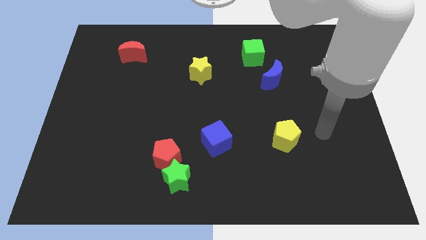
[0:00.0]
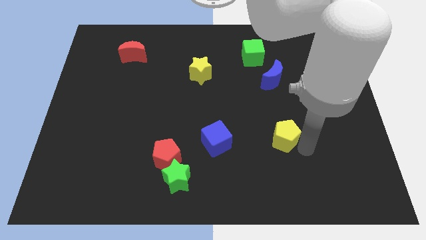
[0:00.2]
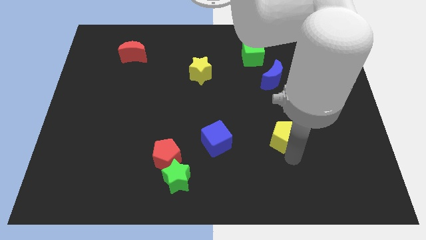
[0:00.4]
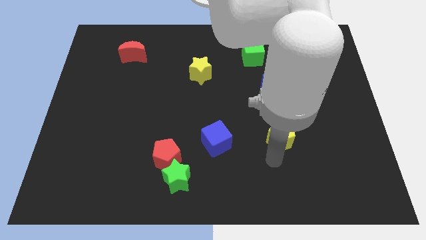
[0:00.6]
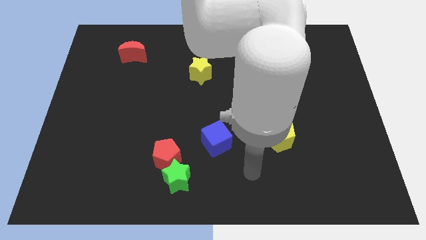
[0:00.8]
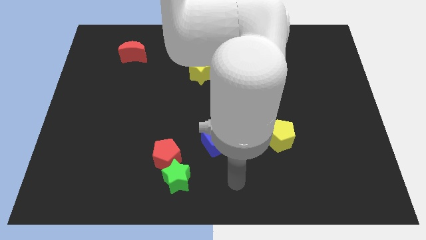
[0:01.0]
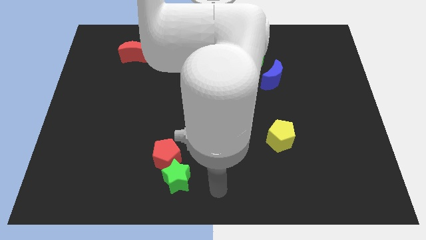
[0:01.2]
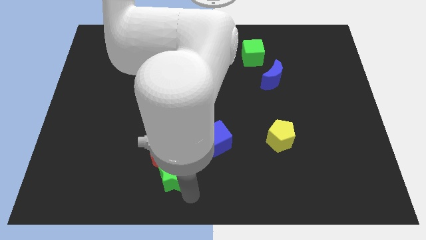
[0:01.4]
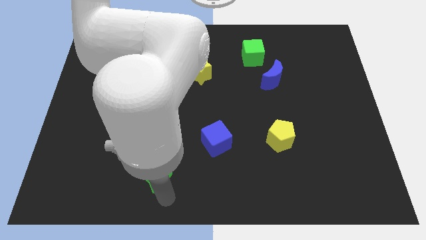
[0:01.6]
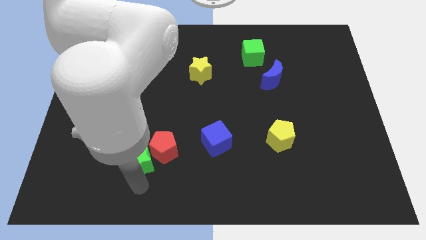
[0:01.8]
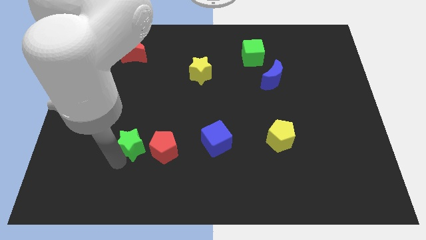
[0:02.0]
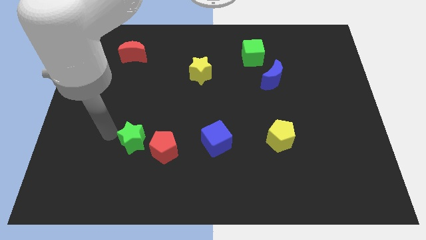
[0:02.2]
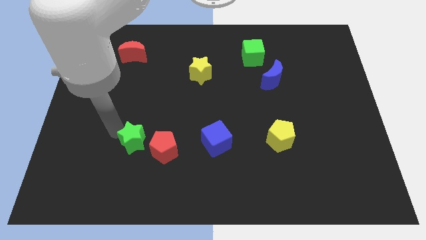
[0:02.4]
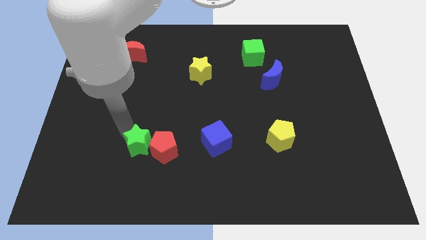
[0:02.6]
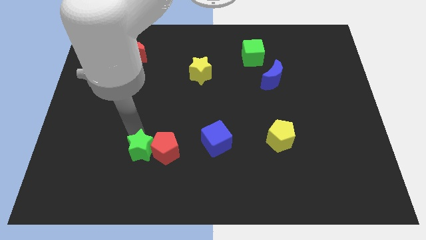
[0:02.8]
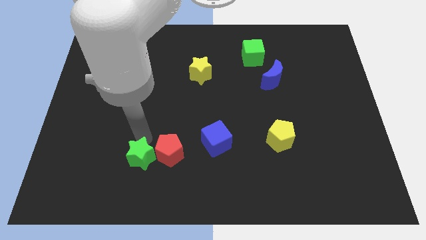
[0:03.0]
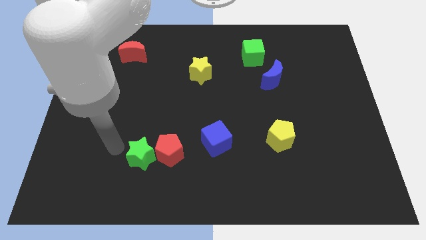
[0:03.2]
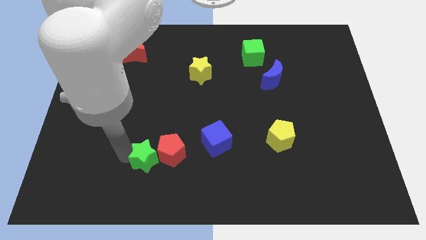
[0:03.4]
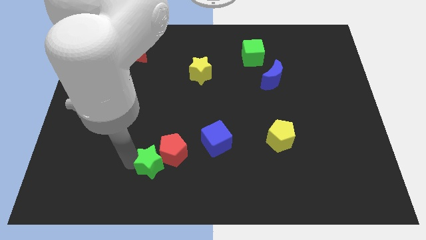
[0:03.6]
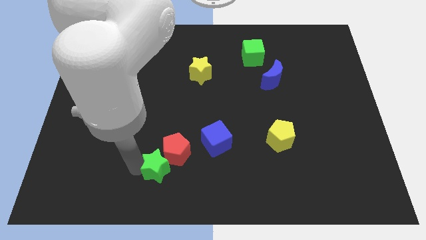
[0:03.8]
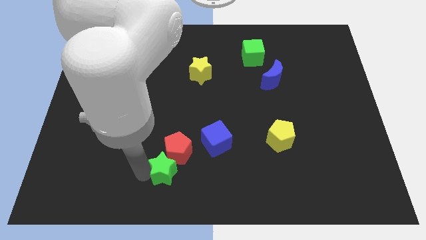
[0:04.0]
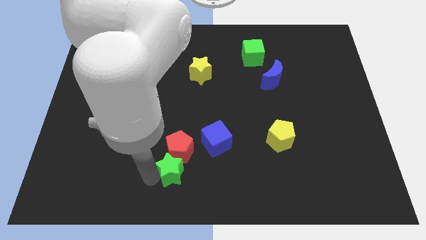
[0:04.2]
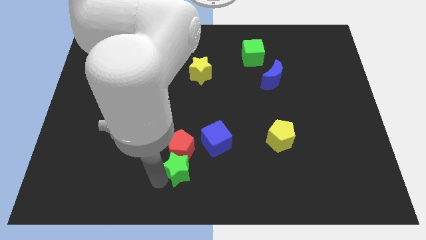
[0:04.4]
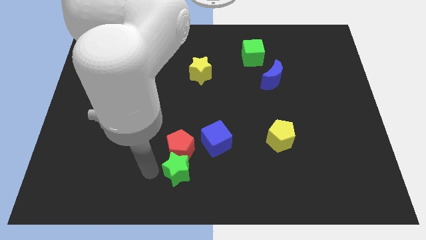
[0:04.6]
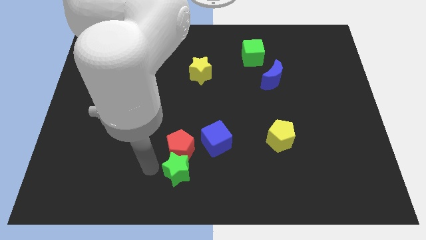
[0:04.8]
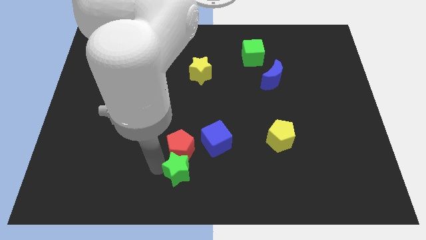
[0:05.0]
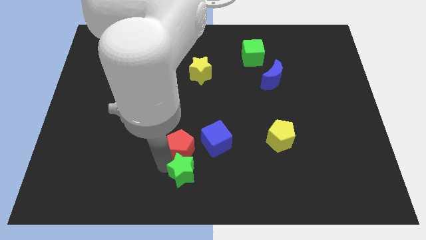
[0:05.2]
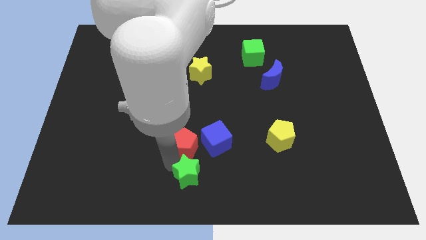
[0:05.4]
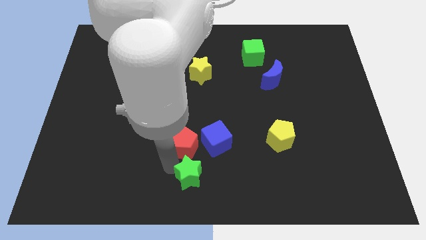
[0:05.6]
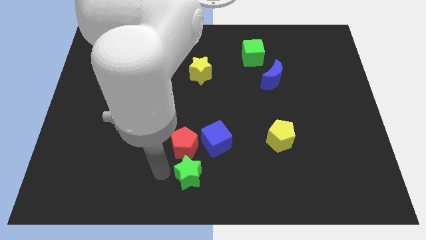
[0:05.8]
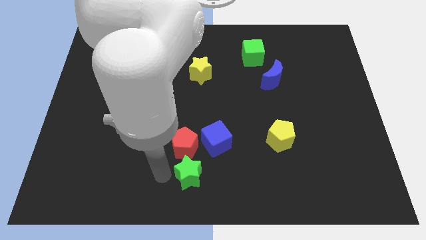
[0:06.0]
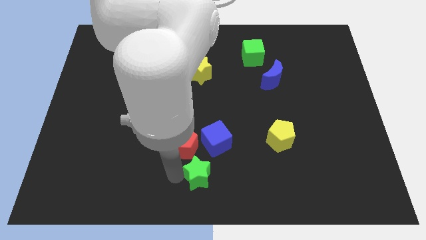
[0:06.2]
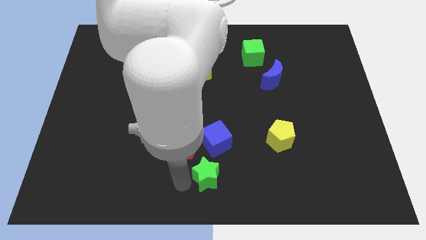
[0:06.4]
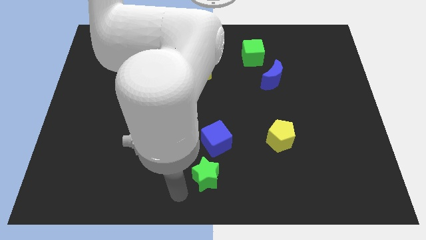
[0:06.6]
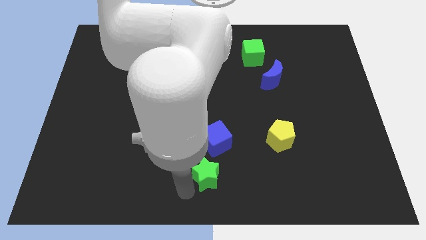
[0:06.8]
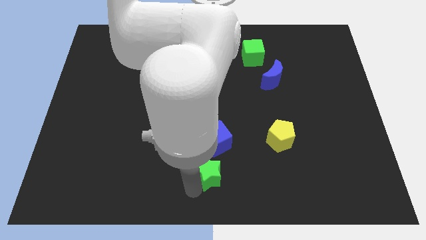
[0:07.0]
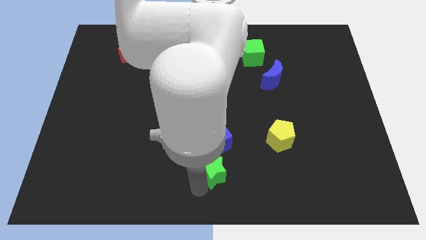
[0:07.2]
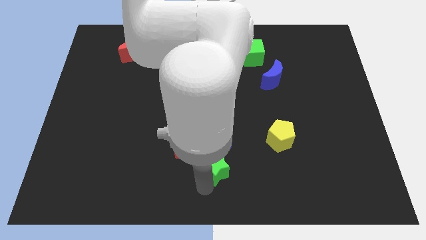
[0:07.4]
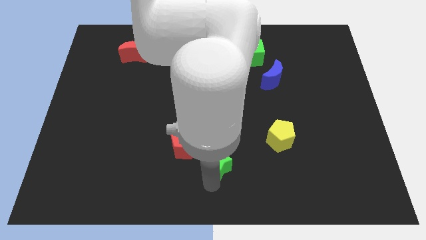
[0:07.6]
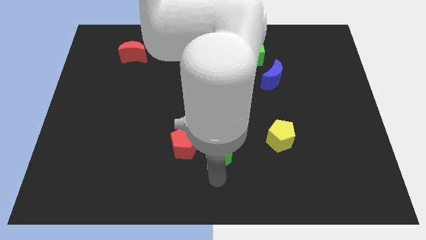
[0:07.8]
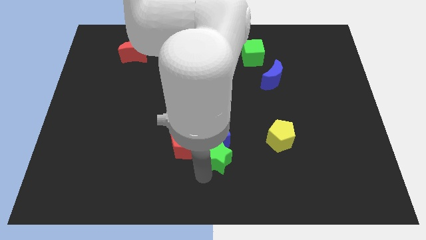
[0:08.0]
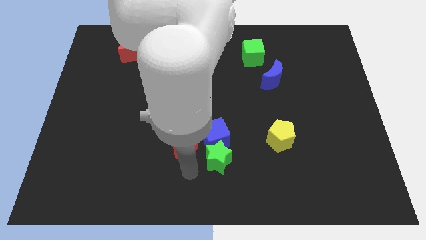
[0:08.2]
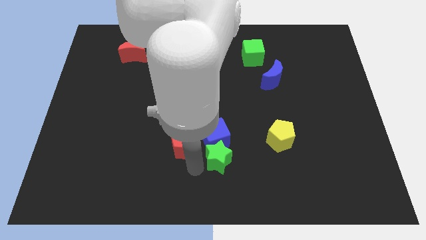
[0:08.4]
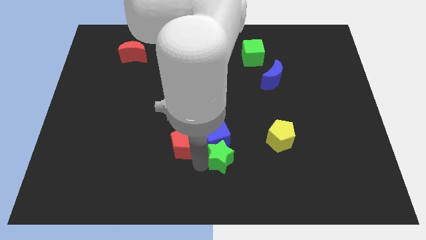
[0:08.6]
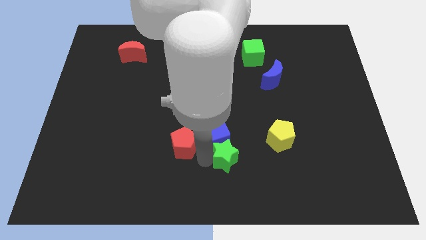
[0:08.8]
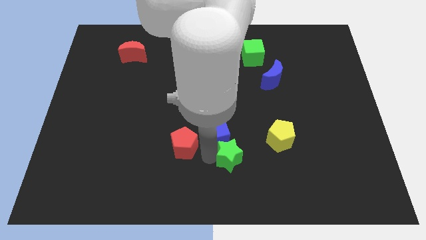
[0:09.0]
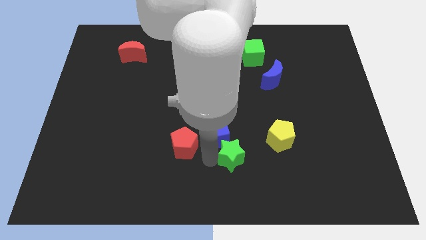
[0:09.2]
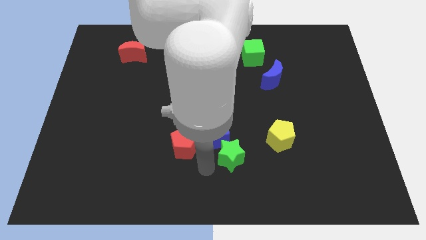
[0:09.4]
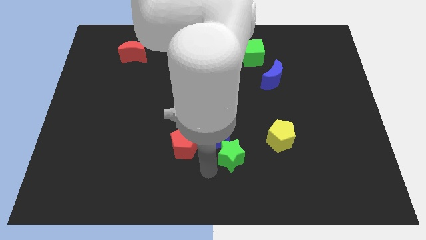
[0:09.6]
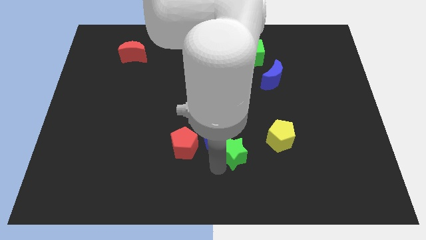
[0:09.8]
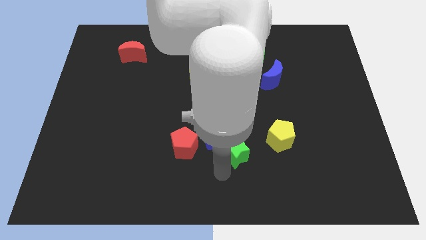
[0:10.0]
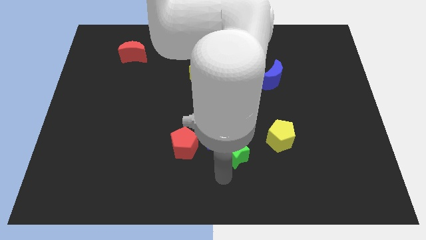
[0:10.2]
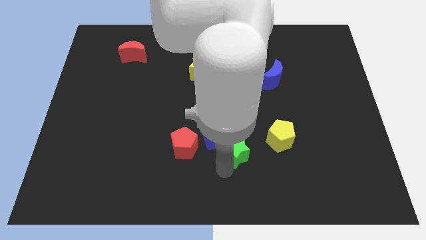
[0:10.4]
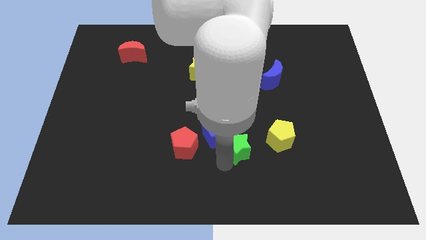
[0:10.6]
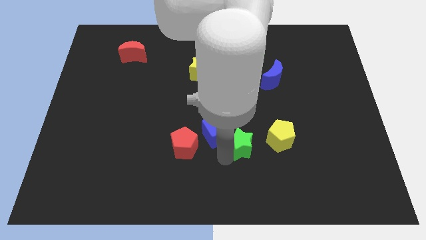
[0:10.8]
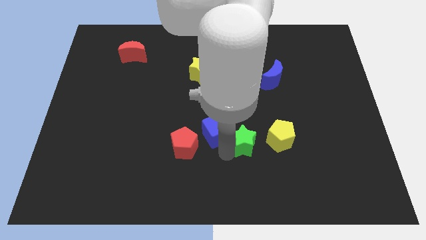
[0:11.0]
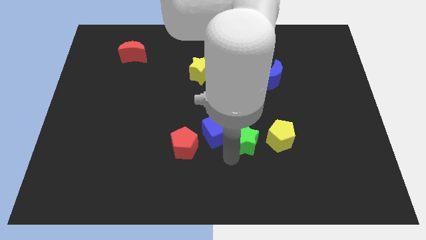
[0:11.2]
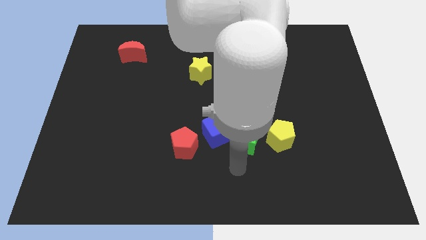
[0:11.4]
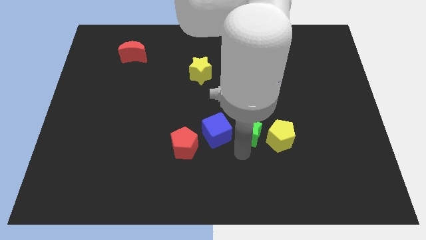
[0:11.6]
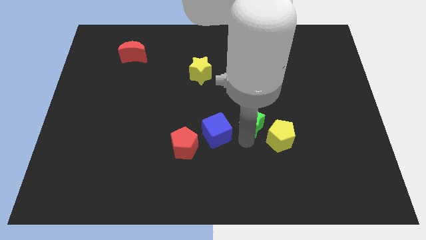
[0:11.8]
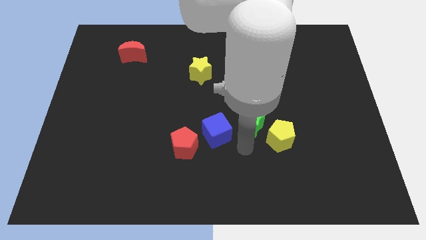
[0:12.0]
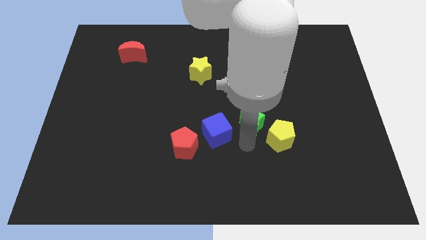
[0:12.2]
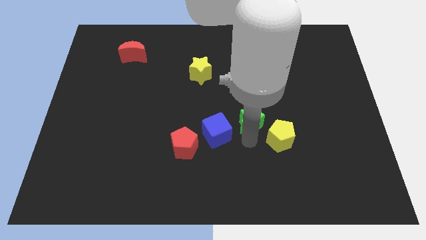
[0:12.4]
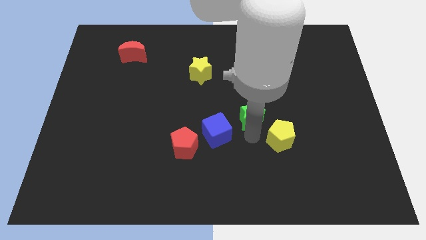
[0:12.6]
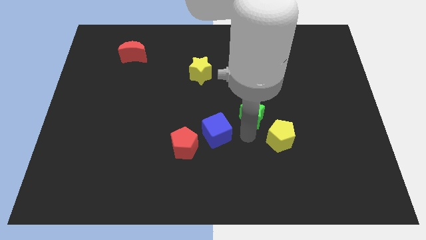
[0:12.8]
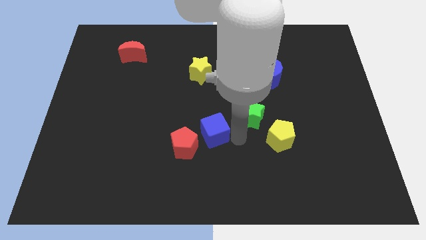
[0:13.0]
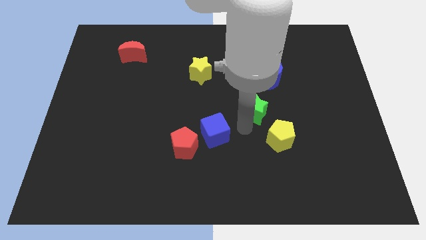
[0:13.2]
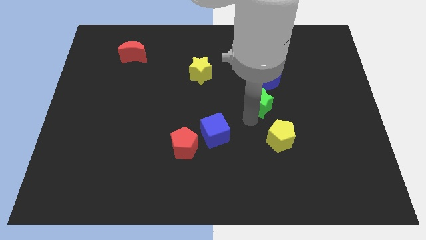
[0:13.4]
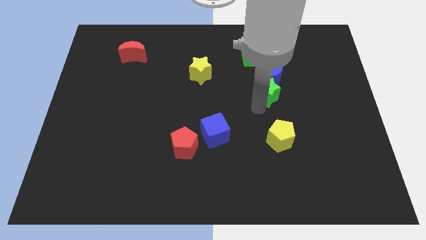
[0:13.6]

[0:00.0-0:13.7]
move the green star towards the blue moon

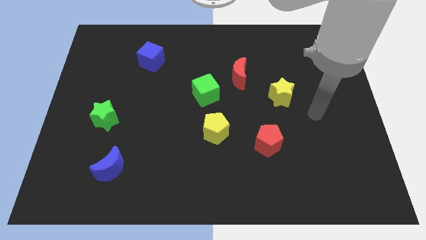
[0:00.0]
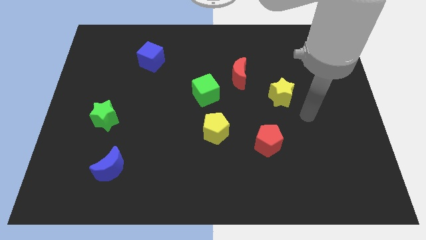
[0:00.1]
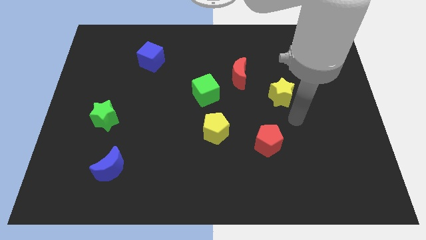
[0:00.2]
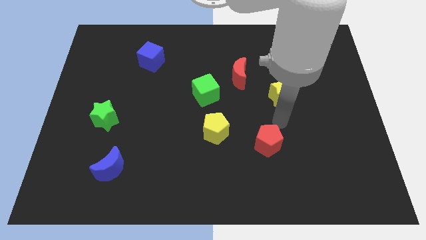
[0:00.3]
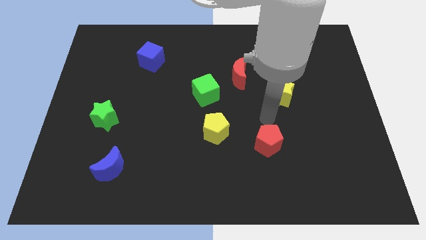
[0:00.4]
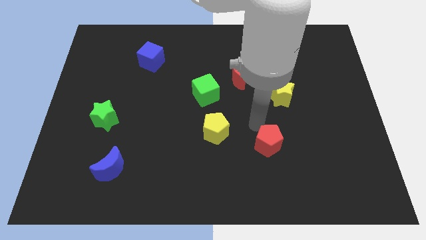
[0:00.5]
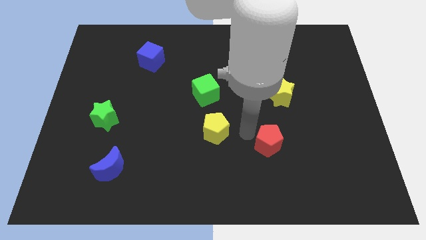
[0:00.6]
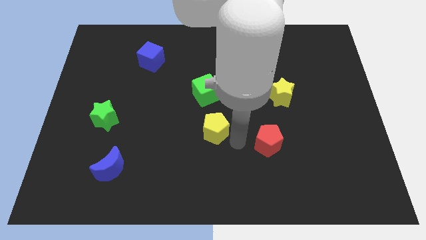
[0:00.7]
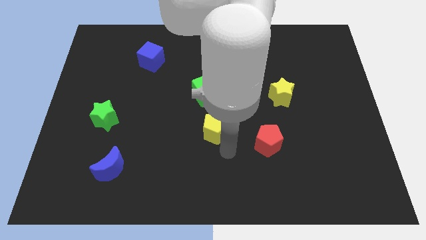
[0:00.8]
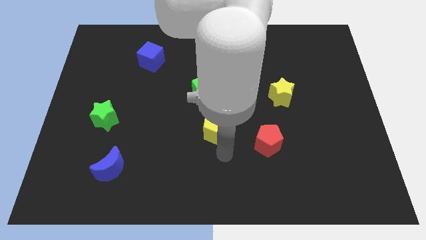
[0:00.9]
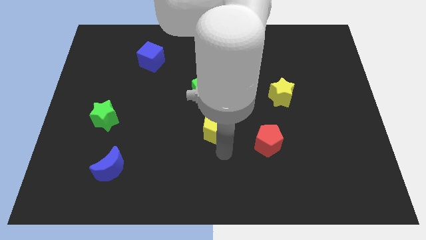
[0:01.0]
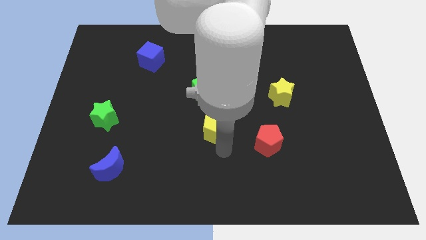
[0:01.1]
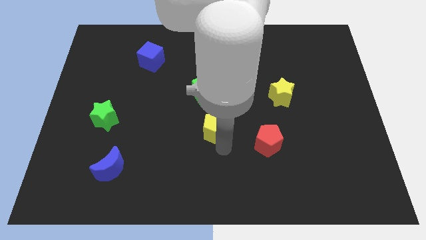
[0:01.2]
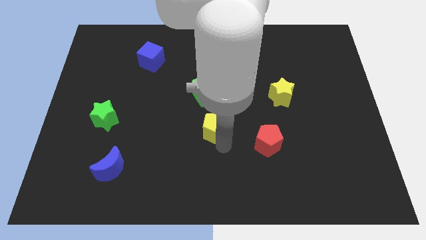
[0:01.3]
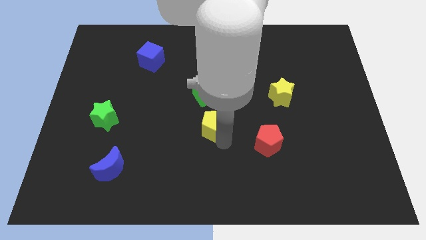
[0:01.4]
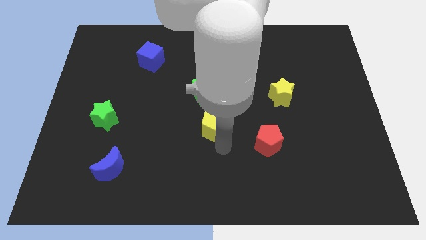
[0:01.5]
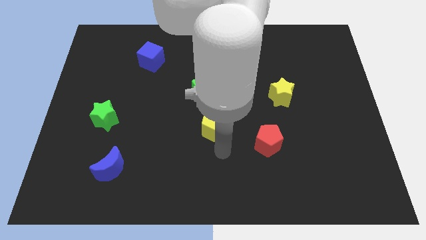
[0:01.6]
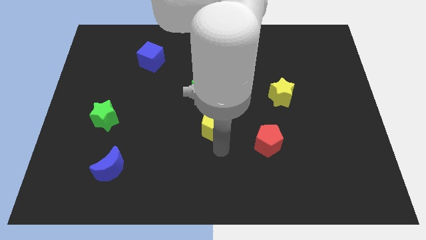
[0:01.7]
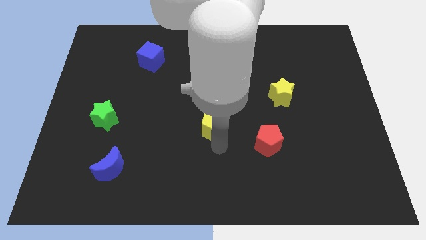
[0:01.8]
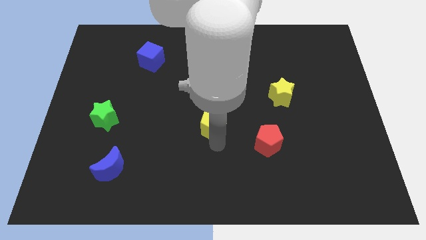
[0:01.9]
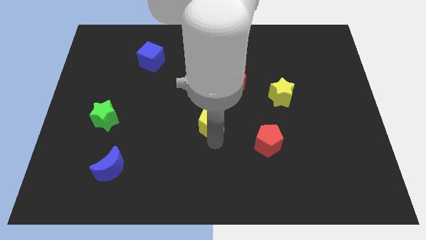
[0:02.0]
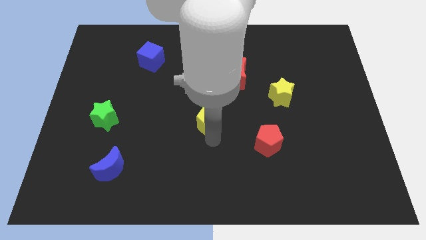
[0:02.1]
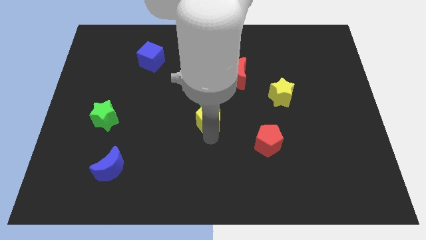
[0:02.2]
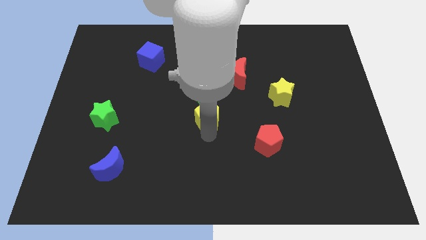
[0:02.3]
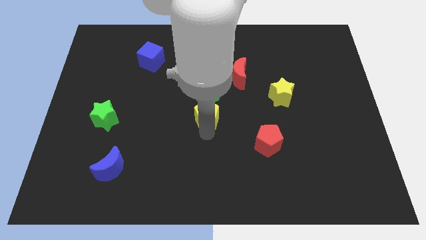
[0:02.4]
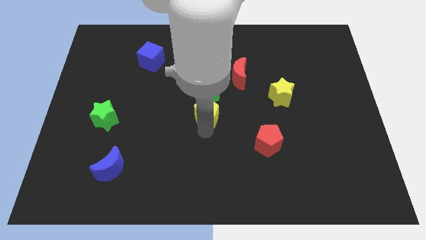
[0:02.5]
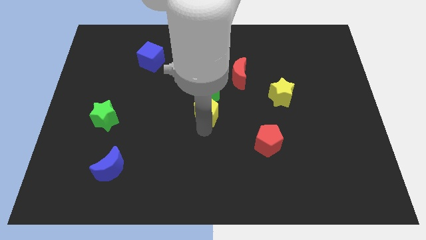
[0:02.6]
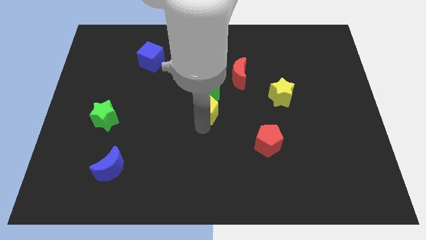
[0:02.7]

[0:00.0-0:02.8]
slide the yellow pentagon close to the green cube
